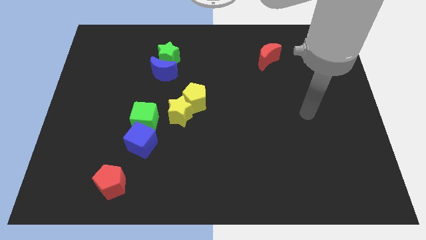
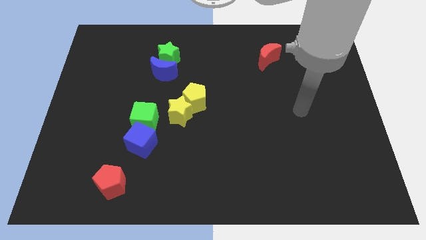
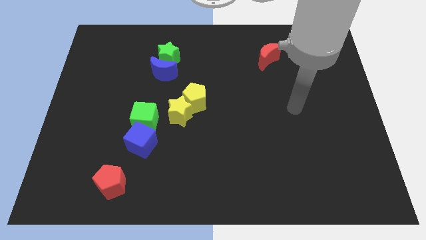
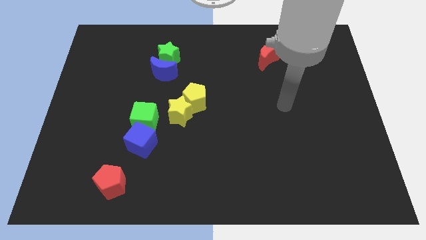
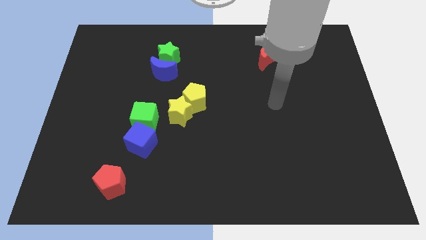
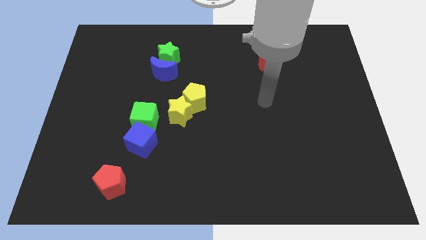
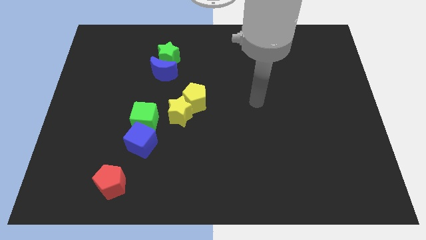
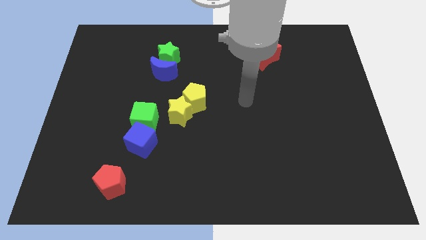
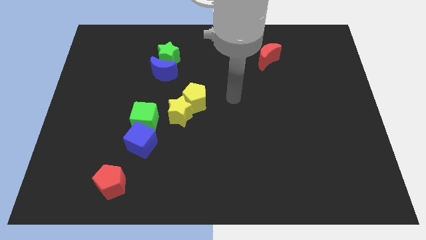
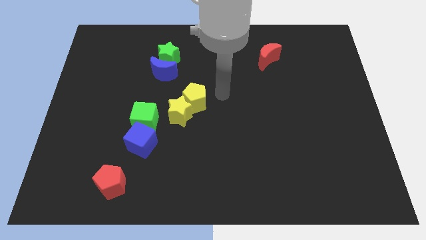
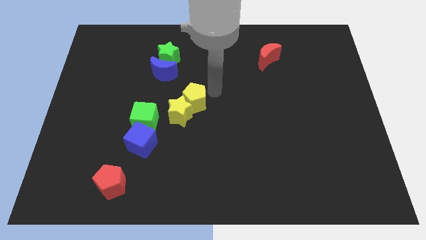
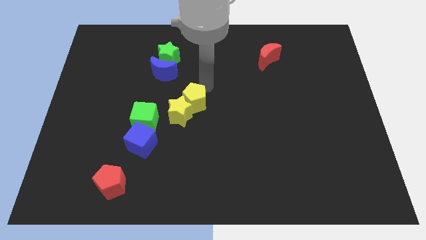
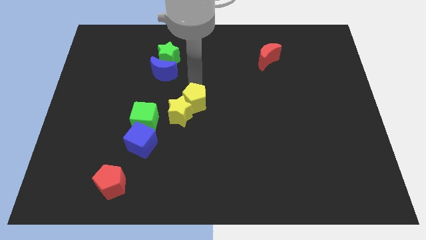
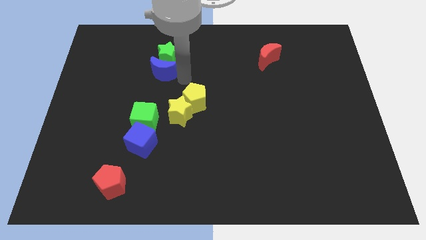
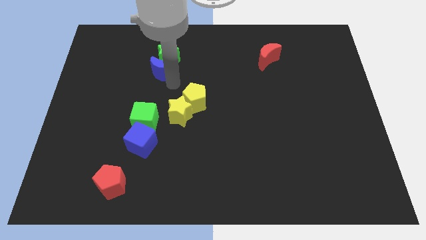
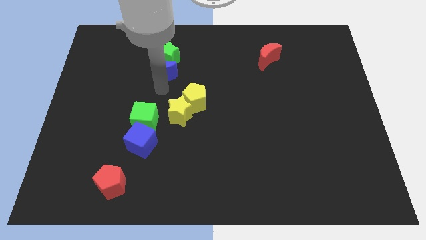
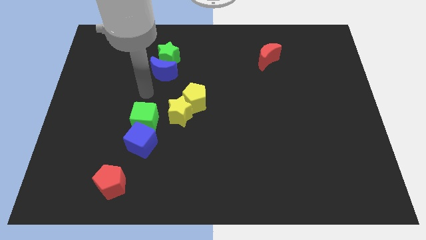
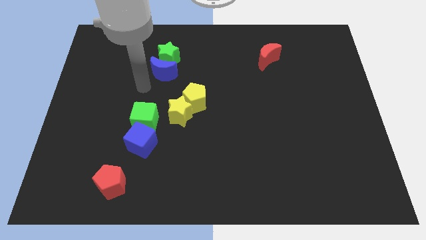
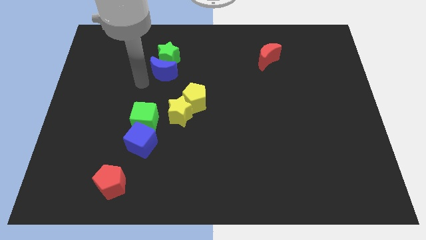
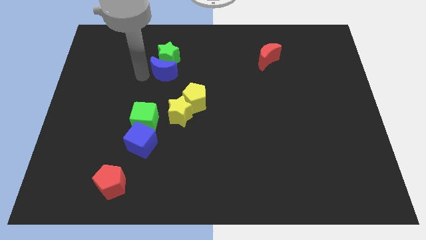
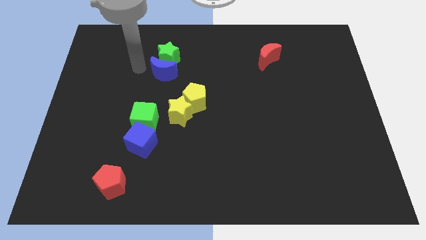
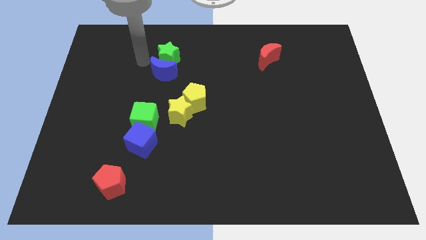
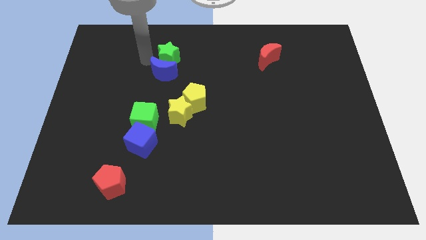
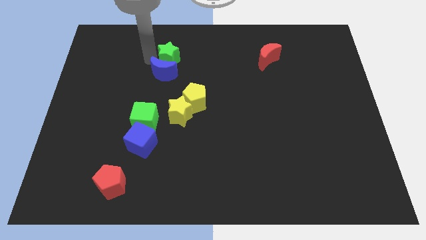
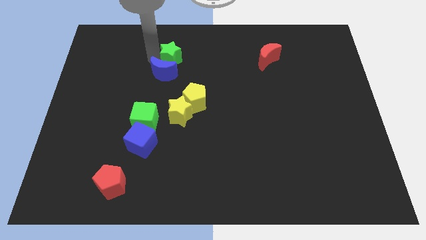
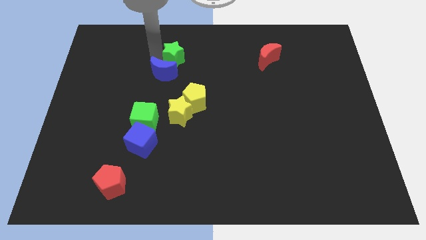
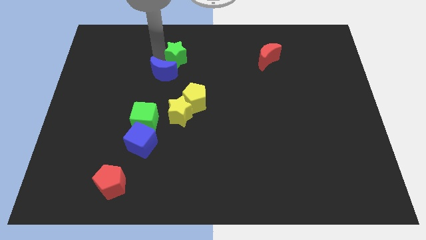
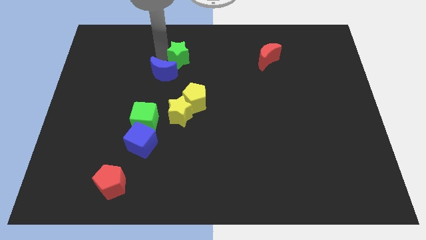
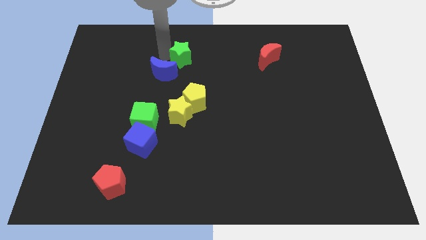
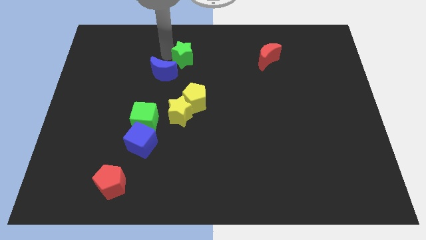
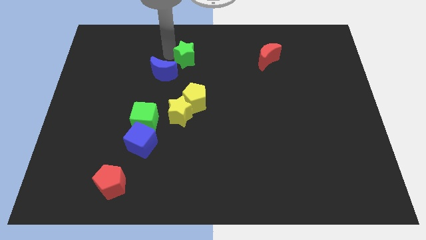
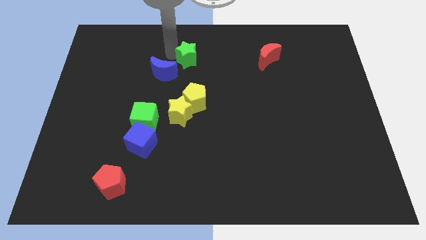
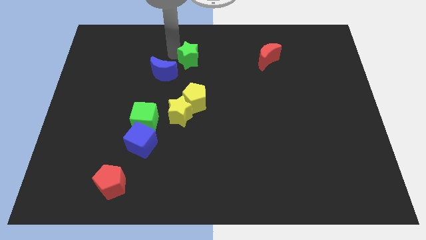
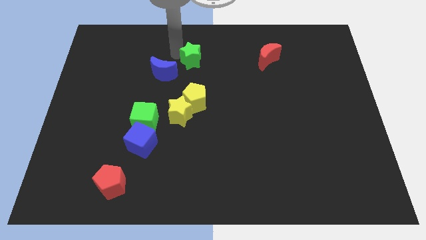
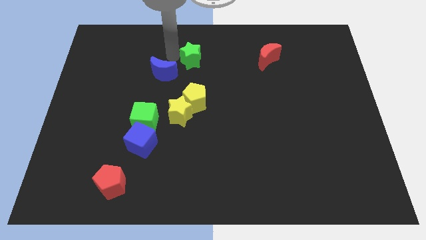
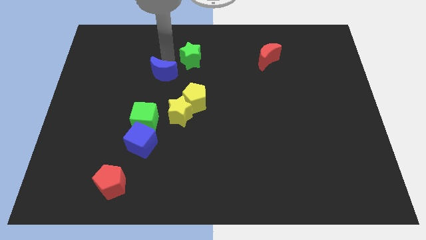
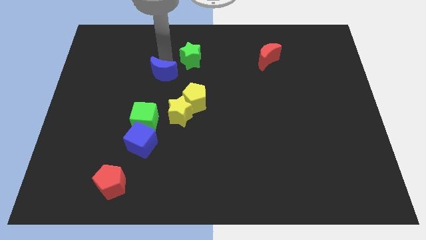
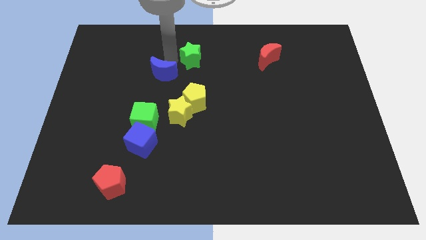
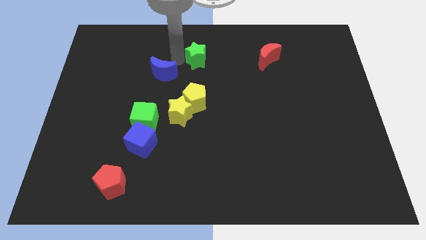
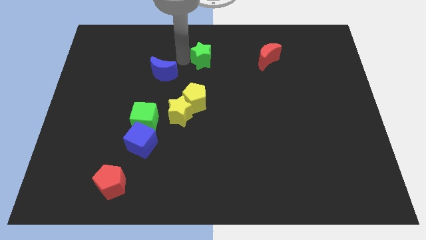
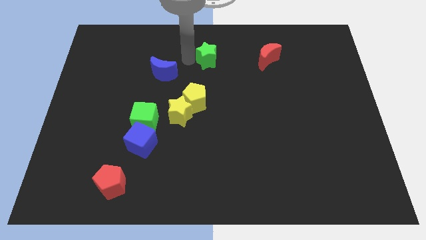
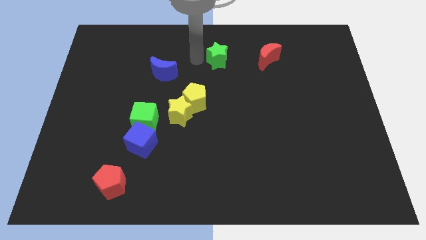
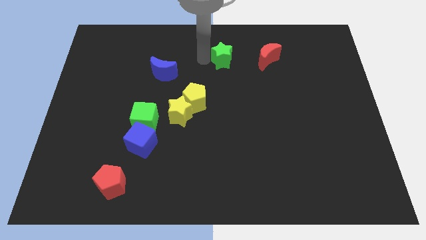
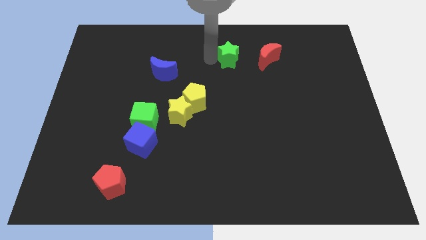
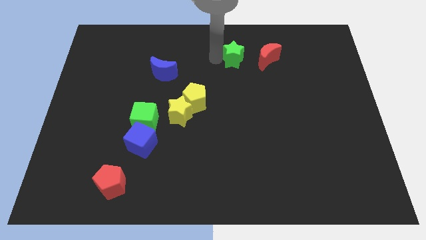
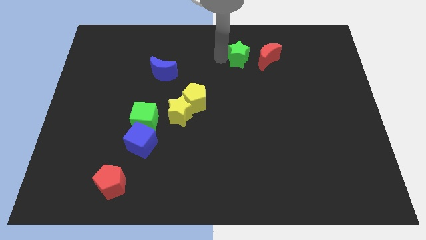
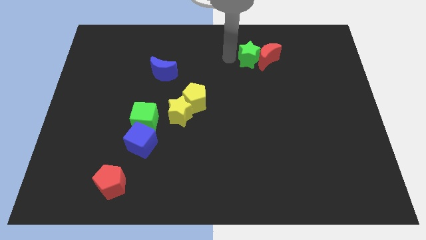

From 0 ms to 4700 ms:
slide the green star towards the red moon

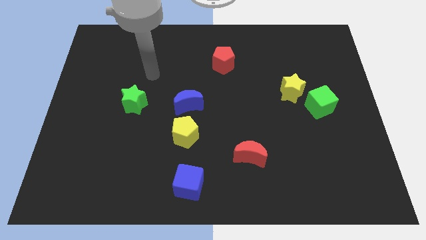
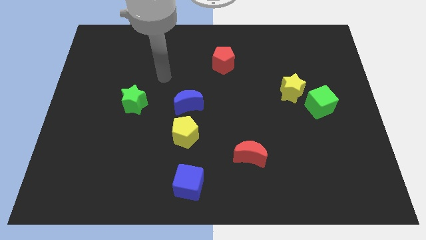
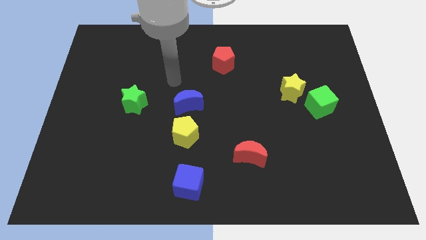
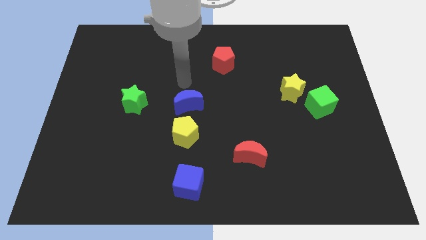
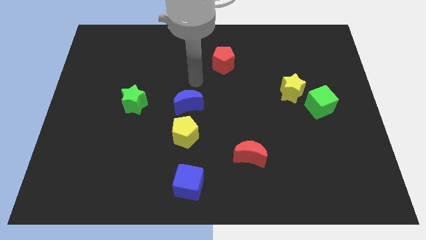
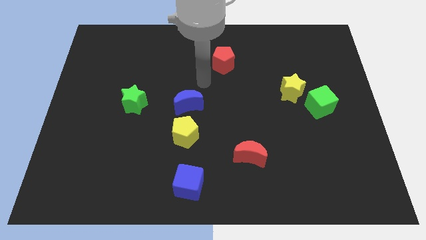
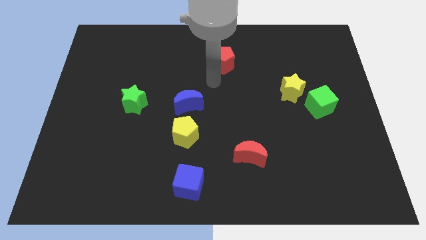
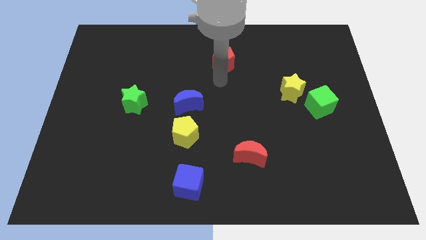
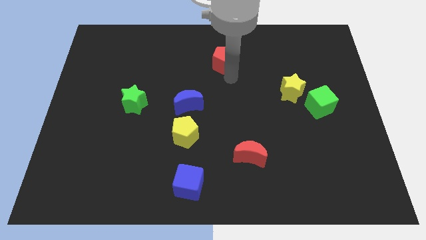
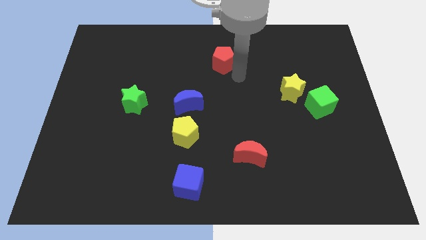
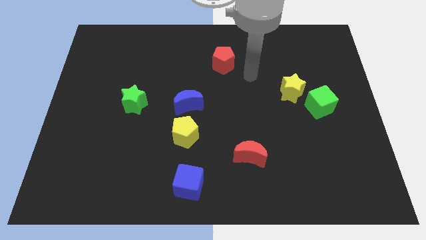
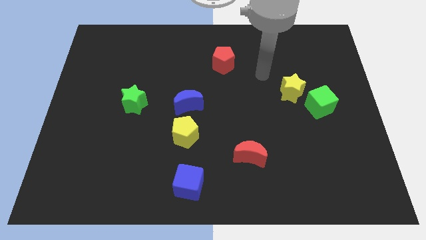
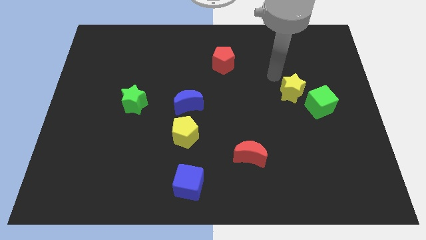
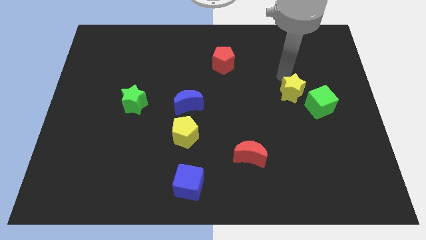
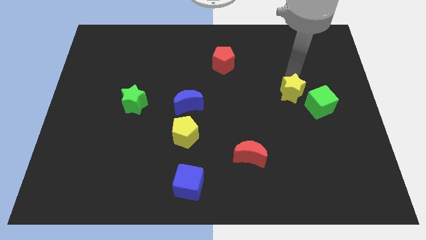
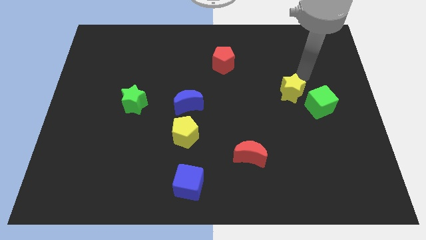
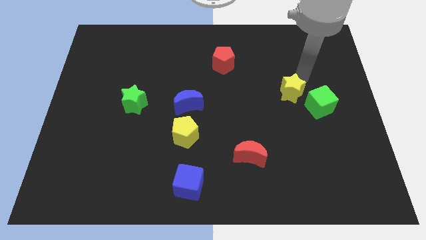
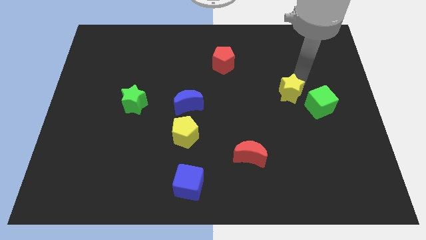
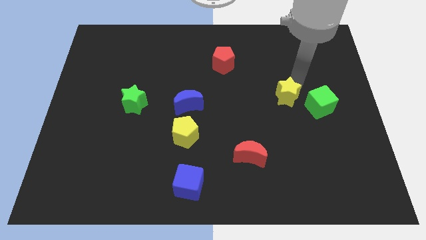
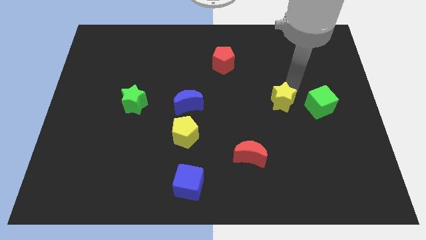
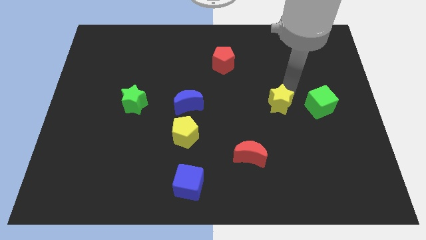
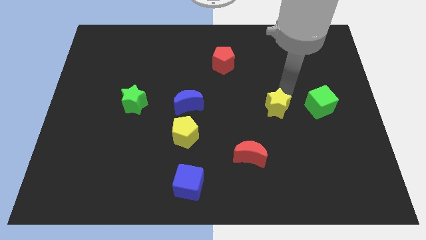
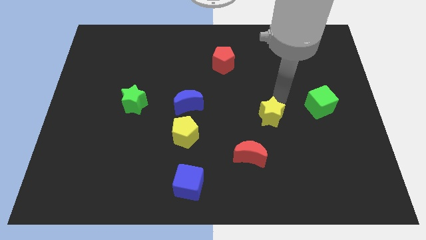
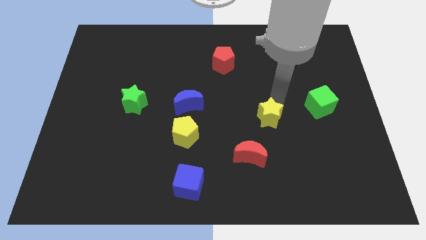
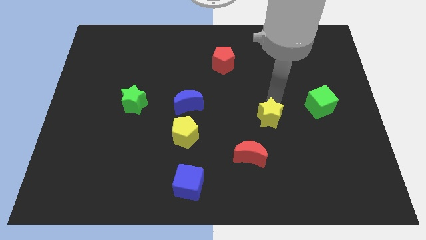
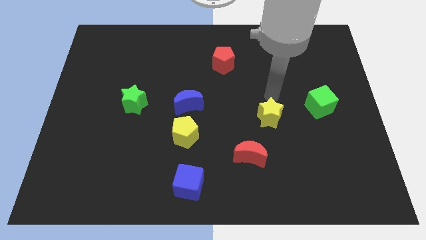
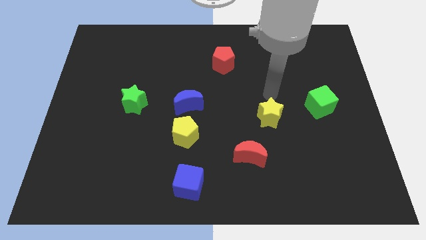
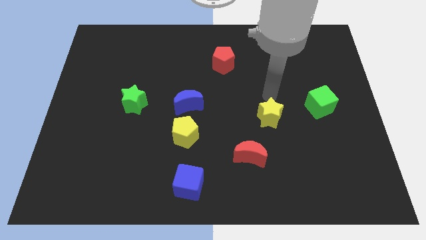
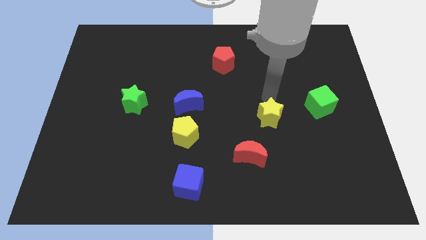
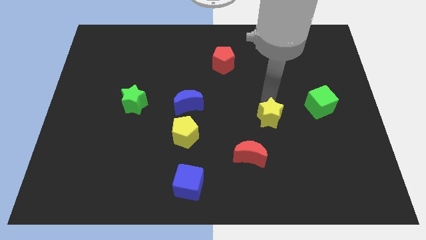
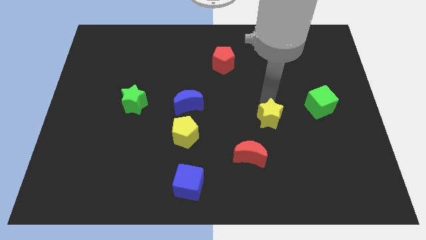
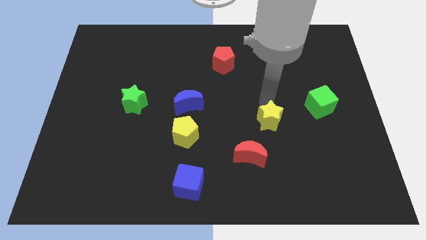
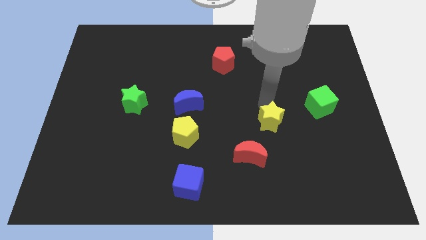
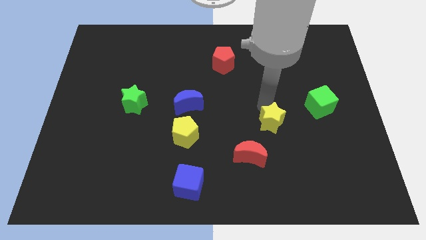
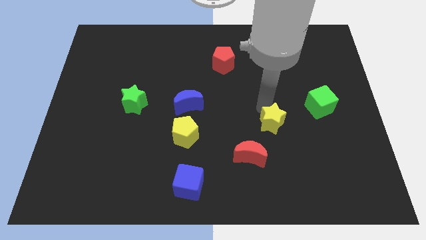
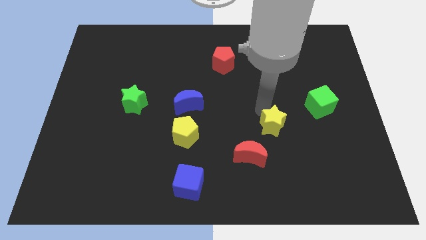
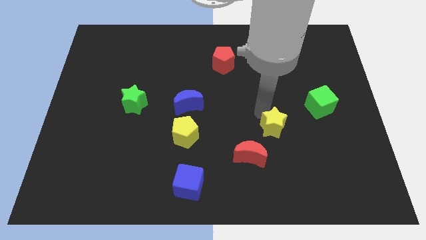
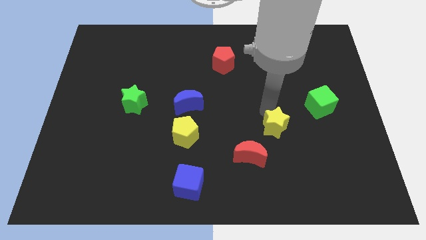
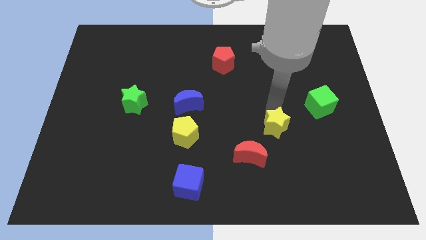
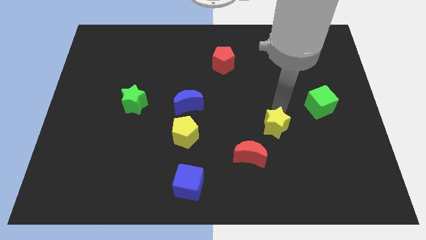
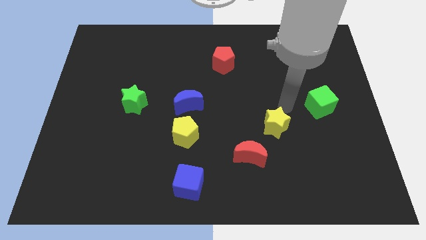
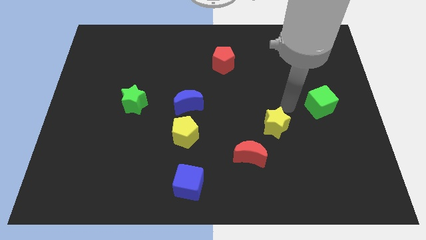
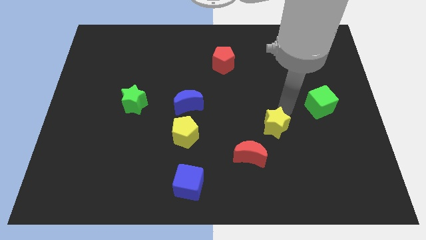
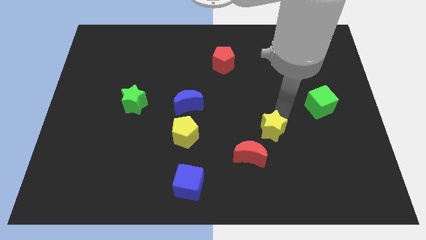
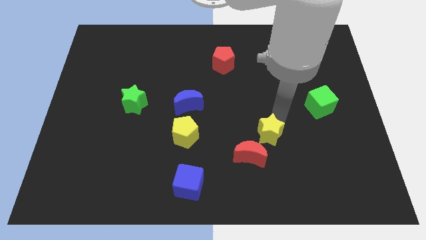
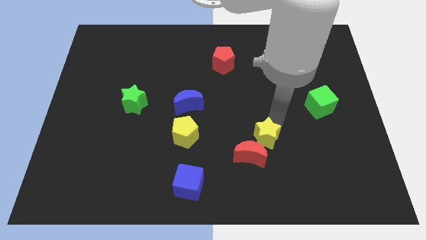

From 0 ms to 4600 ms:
slide the yellow star close to the red moon
